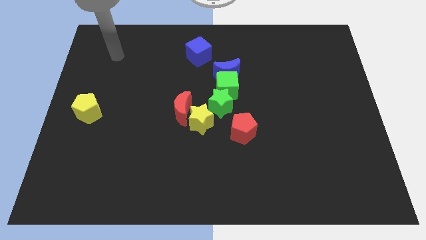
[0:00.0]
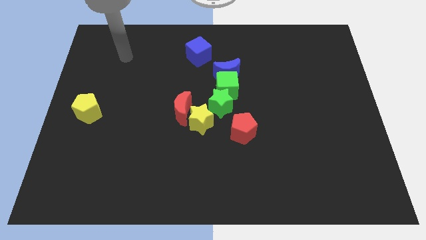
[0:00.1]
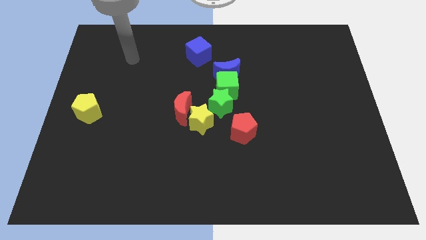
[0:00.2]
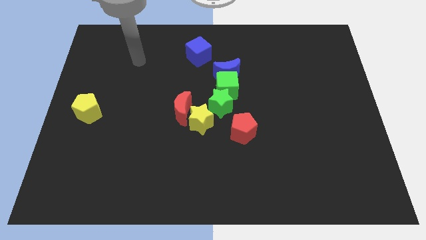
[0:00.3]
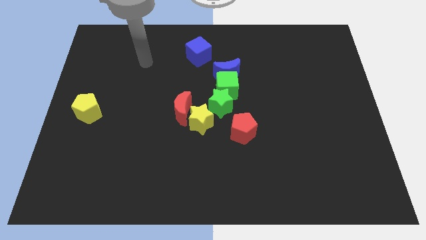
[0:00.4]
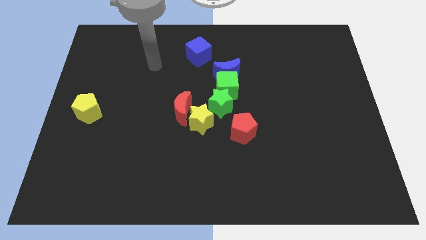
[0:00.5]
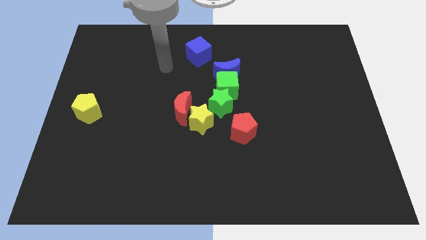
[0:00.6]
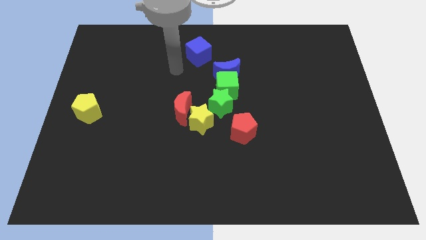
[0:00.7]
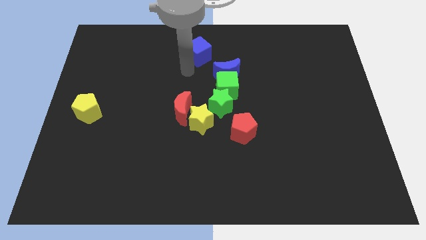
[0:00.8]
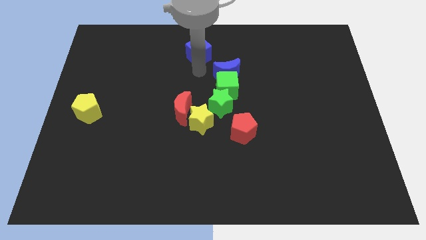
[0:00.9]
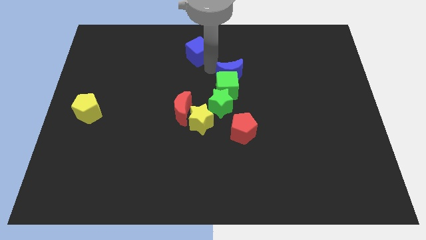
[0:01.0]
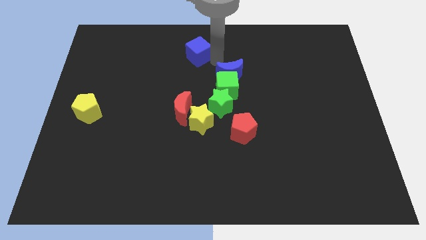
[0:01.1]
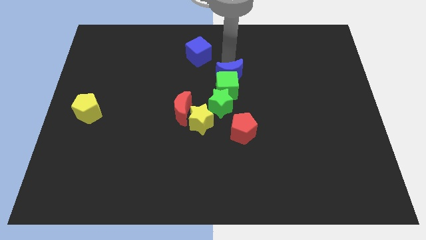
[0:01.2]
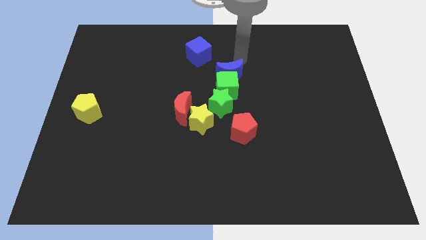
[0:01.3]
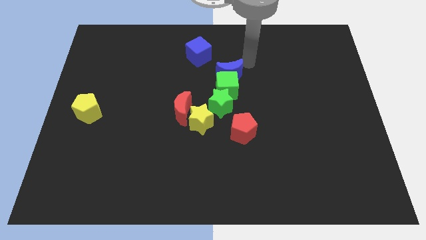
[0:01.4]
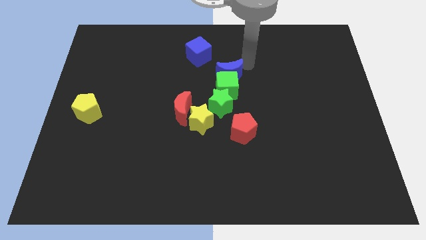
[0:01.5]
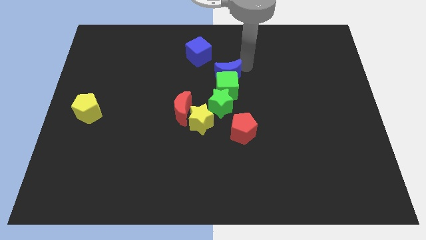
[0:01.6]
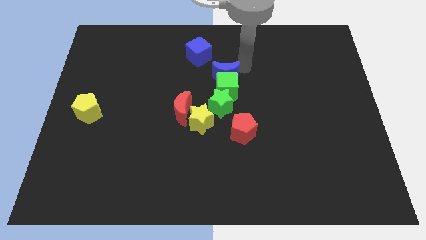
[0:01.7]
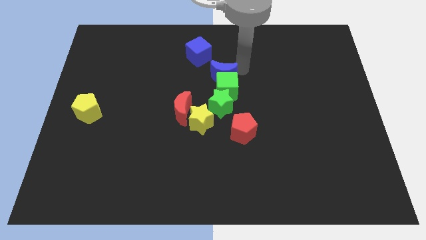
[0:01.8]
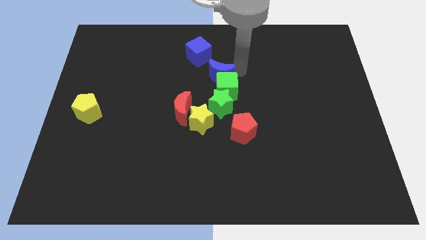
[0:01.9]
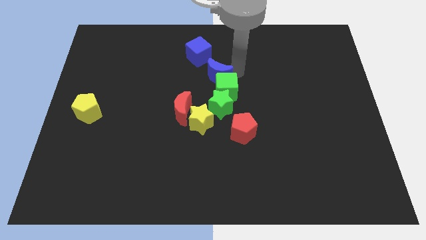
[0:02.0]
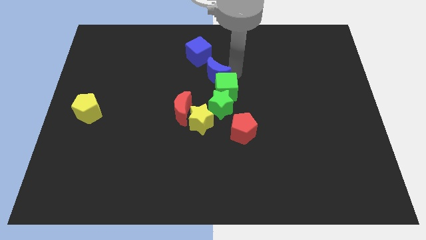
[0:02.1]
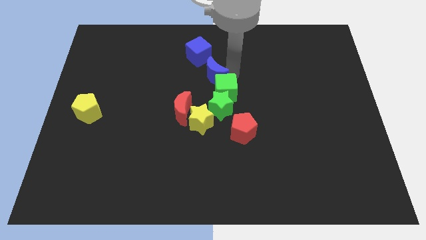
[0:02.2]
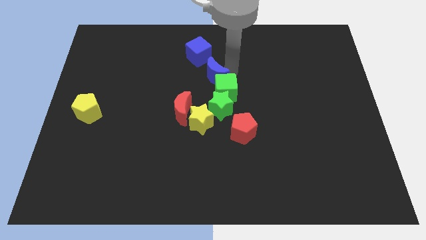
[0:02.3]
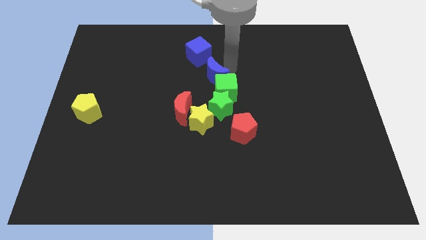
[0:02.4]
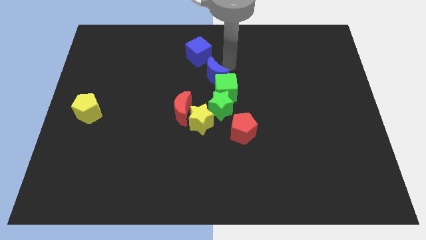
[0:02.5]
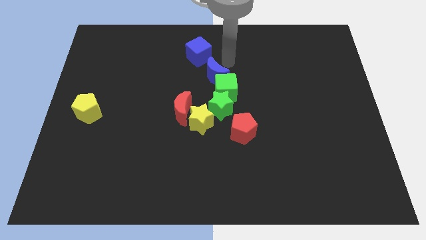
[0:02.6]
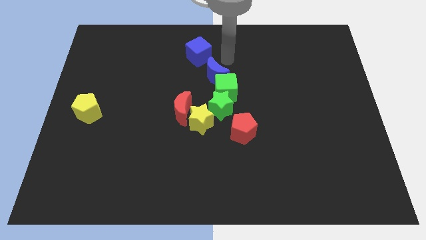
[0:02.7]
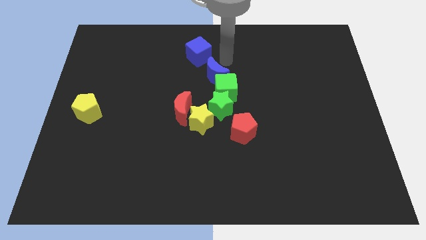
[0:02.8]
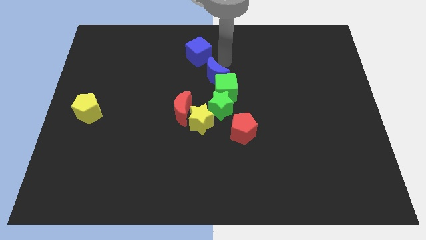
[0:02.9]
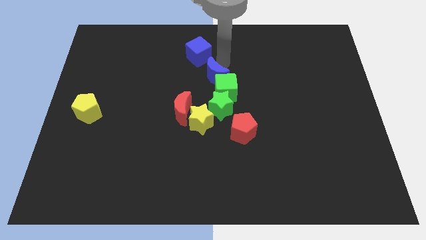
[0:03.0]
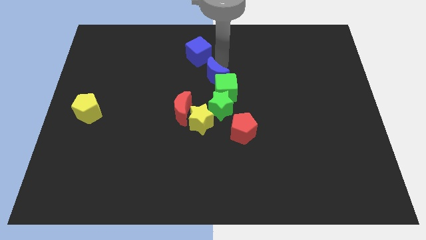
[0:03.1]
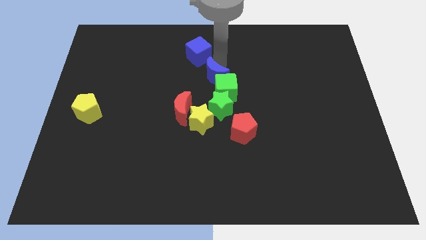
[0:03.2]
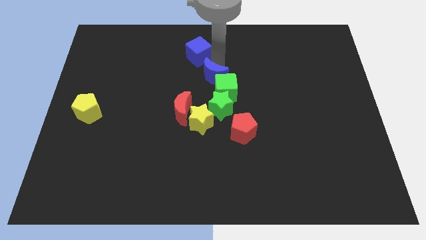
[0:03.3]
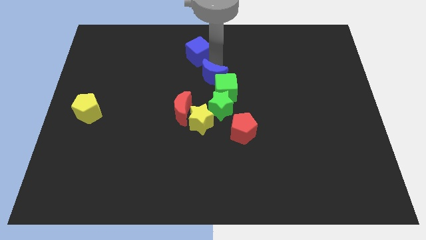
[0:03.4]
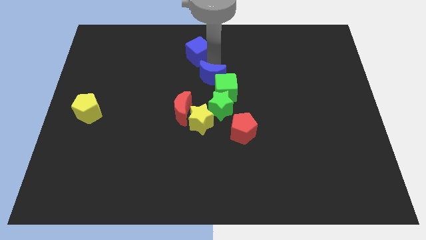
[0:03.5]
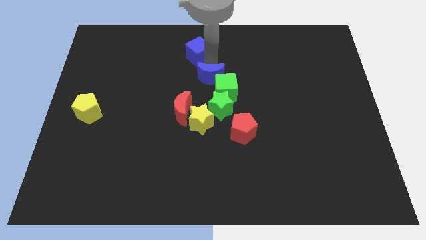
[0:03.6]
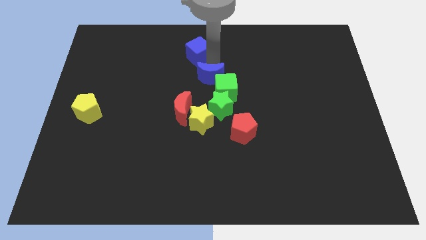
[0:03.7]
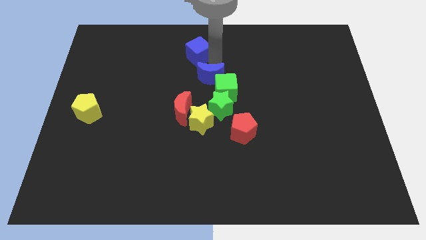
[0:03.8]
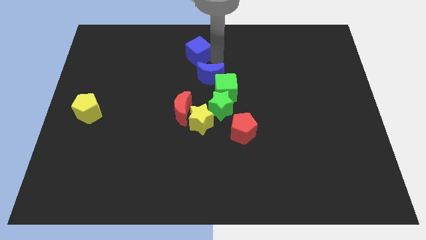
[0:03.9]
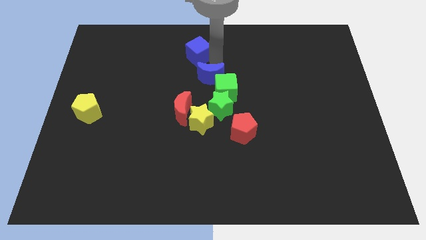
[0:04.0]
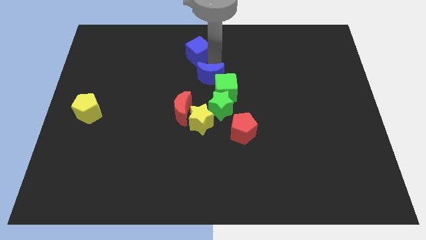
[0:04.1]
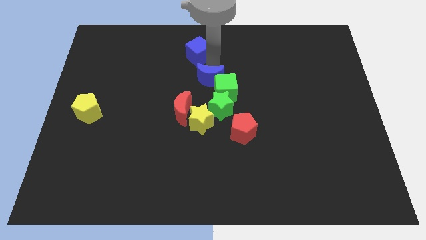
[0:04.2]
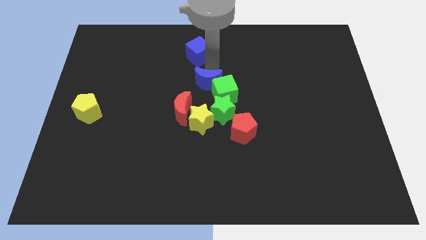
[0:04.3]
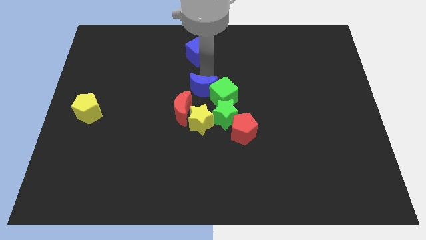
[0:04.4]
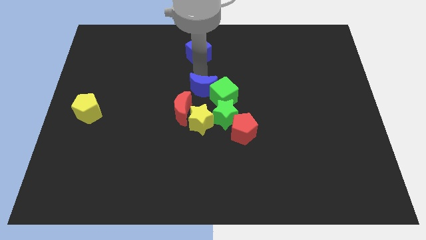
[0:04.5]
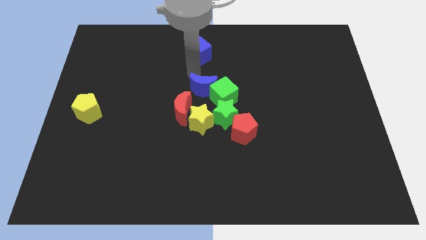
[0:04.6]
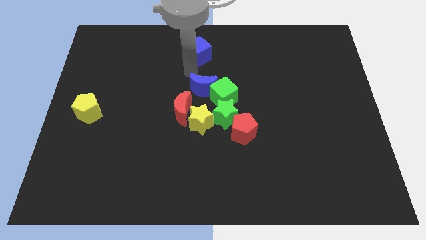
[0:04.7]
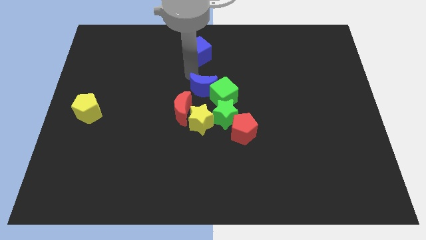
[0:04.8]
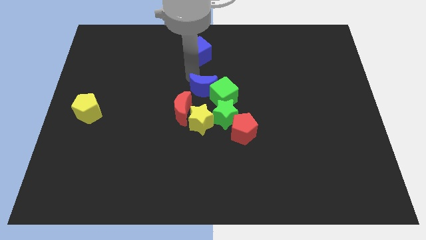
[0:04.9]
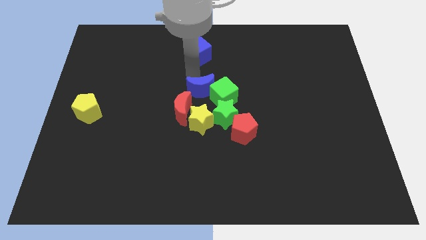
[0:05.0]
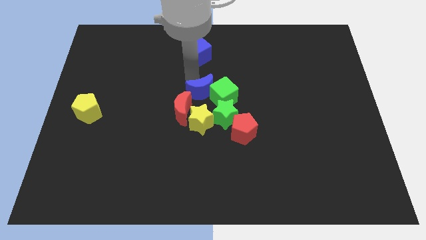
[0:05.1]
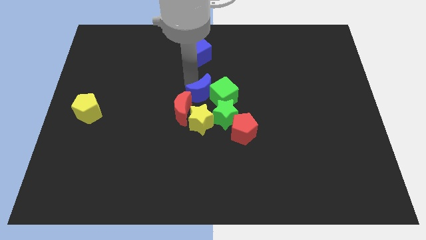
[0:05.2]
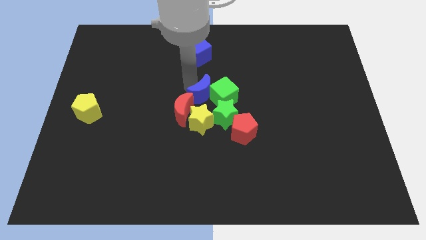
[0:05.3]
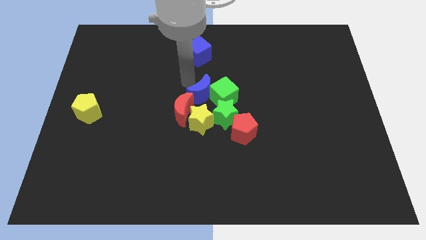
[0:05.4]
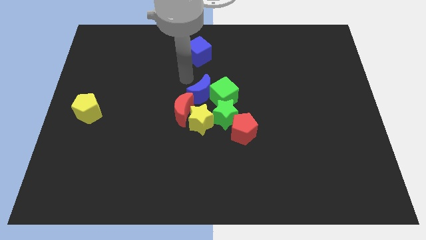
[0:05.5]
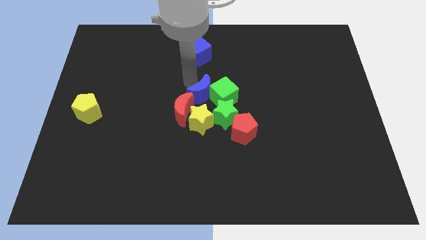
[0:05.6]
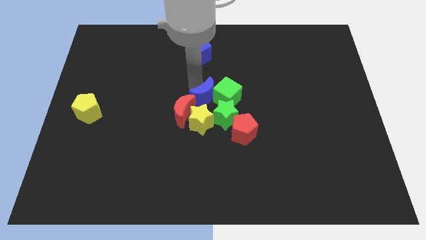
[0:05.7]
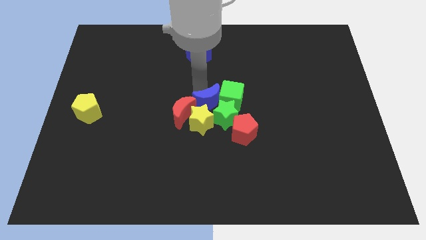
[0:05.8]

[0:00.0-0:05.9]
move the blue moon to the green star
